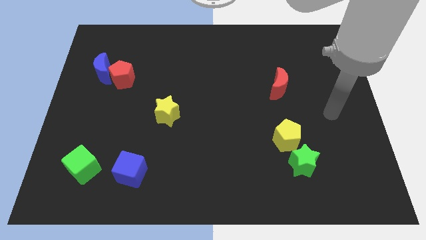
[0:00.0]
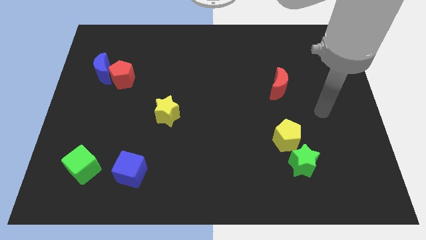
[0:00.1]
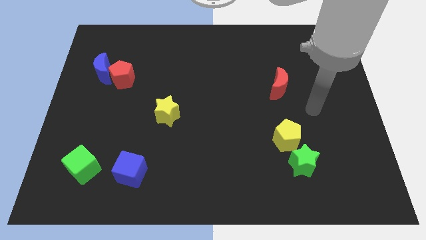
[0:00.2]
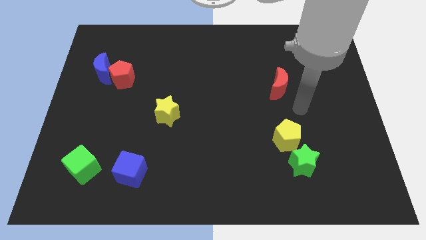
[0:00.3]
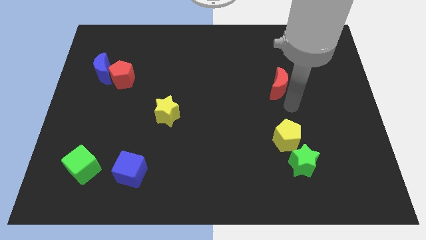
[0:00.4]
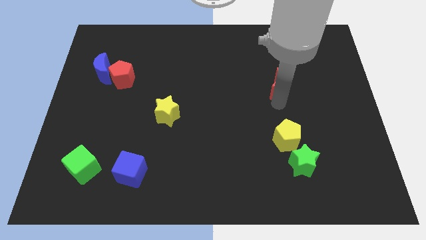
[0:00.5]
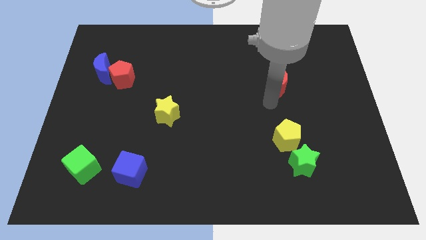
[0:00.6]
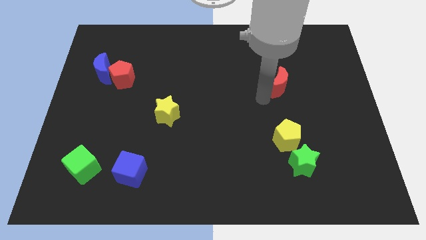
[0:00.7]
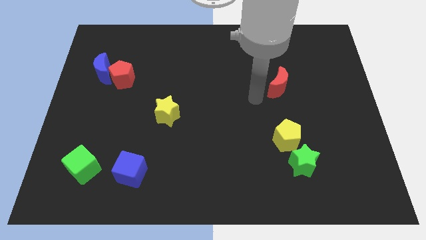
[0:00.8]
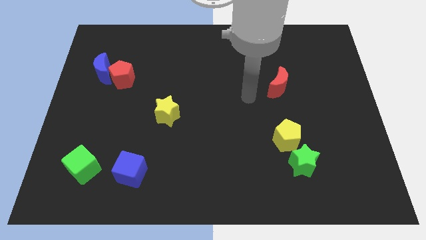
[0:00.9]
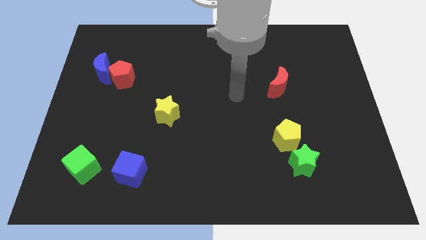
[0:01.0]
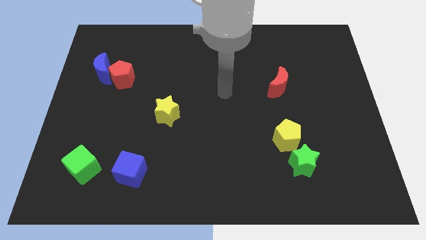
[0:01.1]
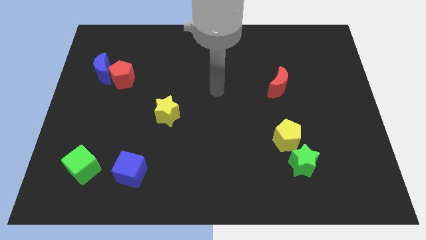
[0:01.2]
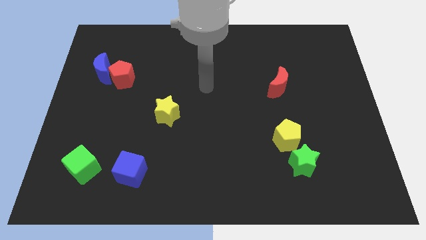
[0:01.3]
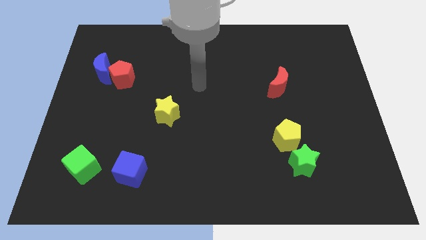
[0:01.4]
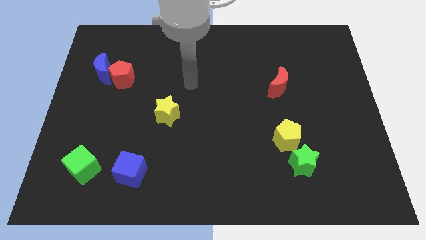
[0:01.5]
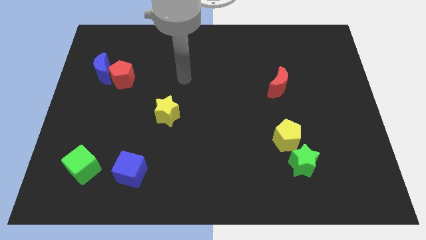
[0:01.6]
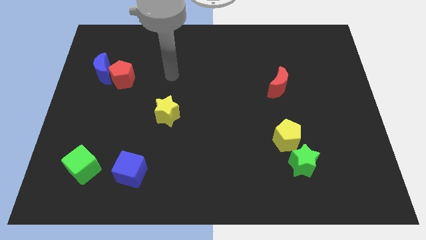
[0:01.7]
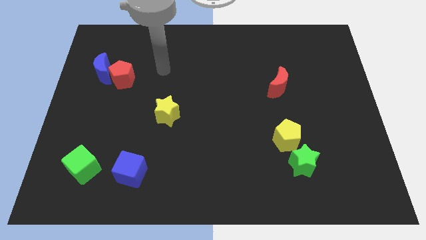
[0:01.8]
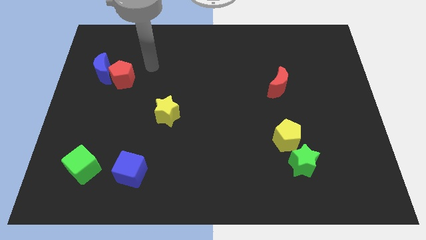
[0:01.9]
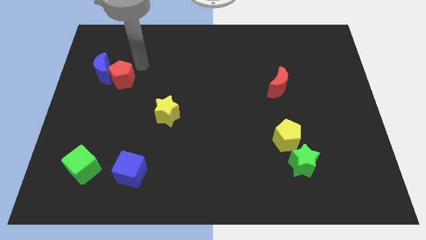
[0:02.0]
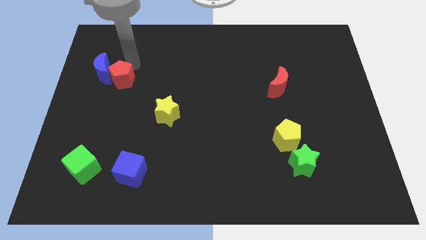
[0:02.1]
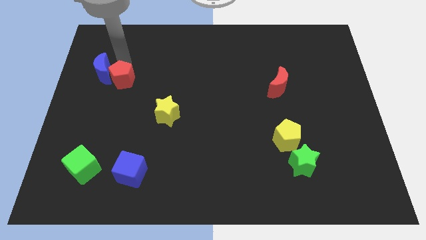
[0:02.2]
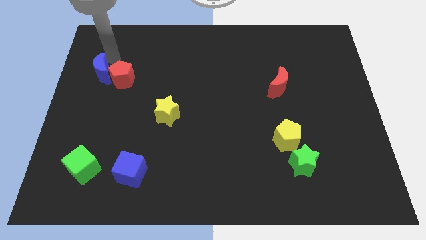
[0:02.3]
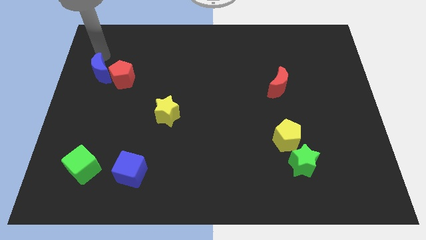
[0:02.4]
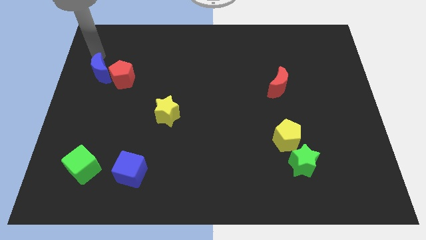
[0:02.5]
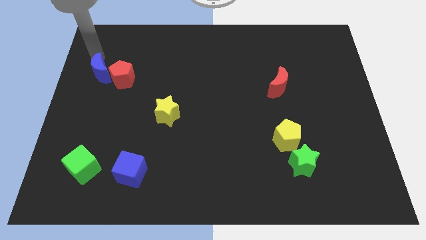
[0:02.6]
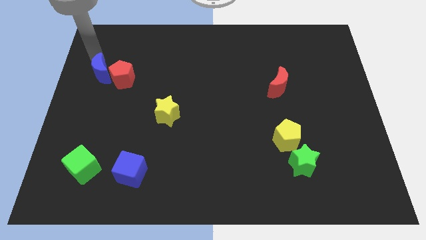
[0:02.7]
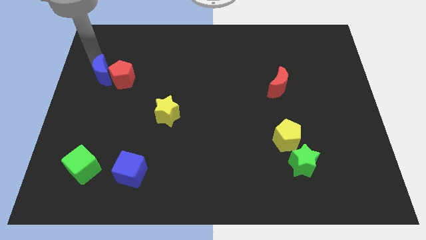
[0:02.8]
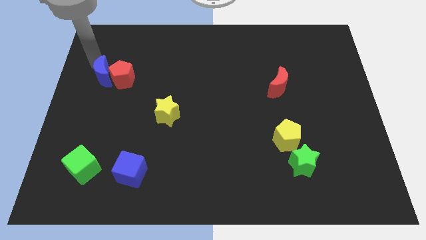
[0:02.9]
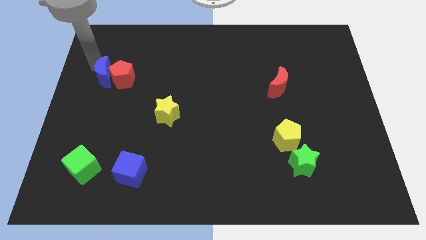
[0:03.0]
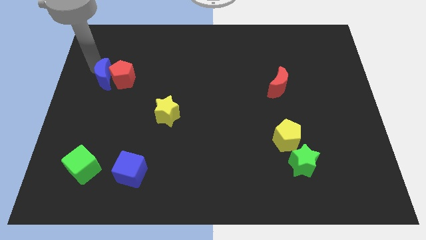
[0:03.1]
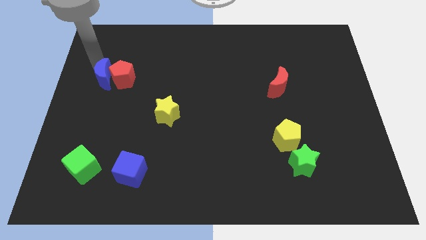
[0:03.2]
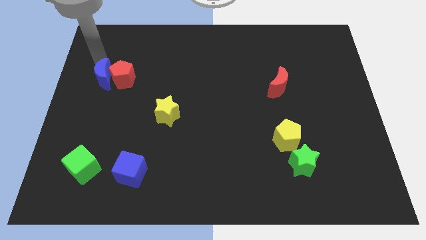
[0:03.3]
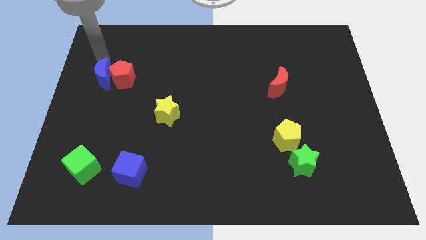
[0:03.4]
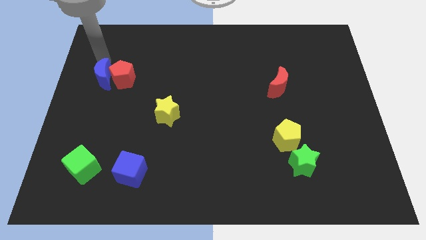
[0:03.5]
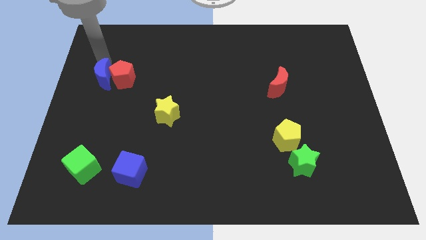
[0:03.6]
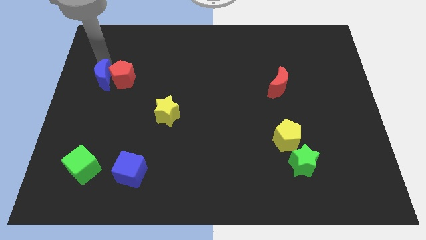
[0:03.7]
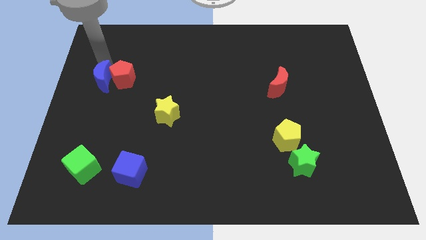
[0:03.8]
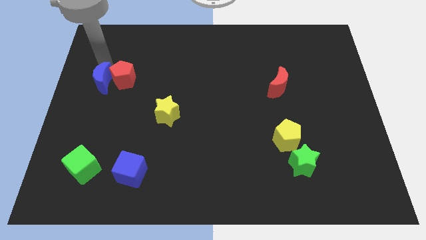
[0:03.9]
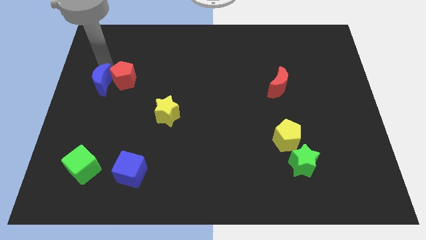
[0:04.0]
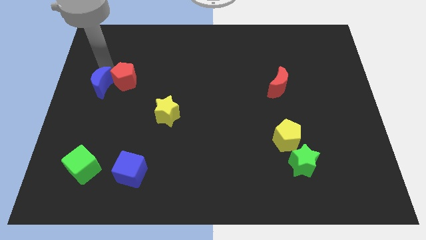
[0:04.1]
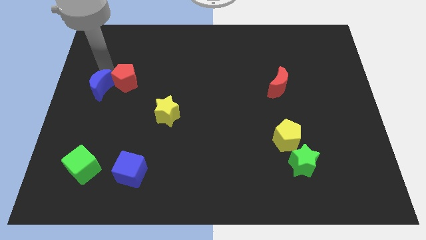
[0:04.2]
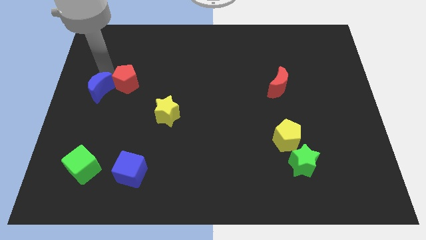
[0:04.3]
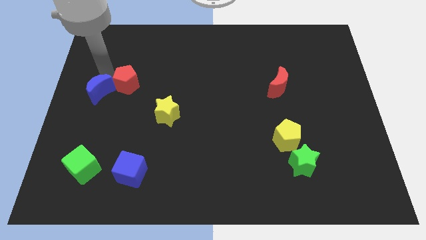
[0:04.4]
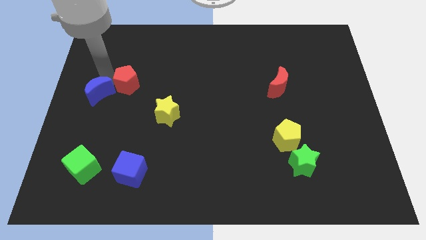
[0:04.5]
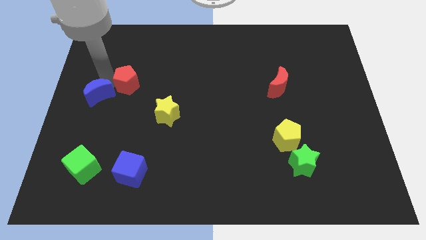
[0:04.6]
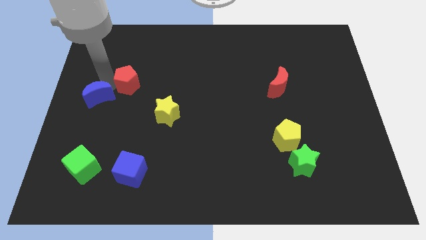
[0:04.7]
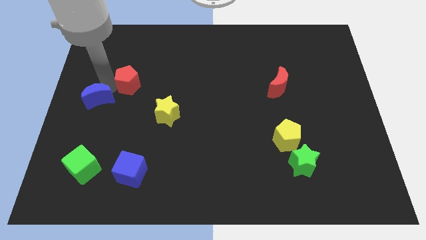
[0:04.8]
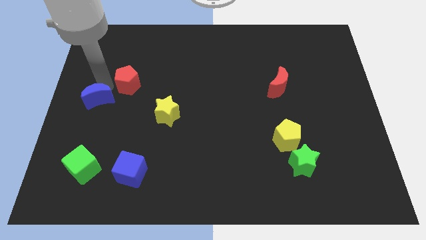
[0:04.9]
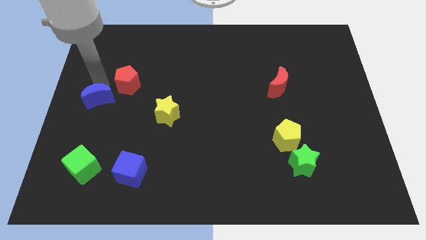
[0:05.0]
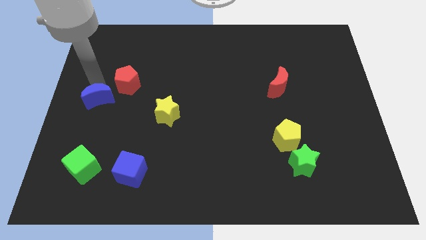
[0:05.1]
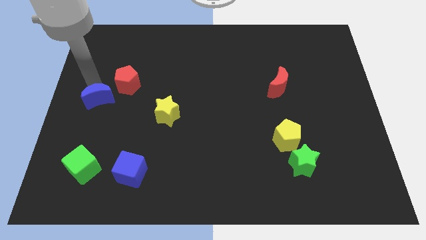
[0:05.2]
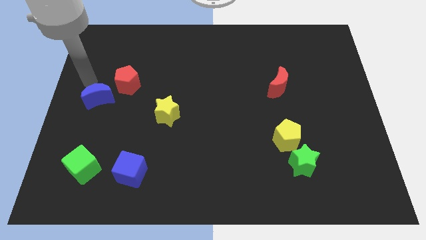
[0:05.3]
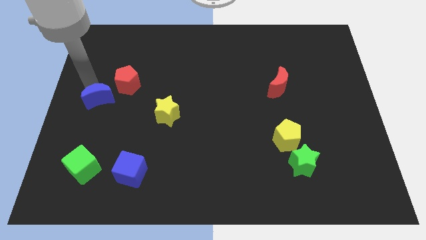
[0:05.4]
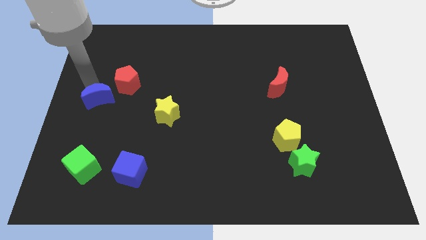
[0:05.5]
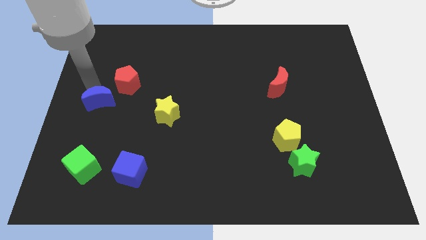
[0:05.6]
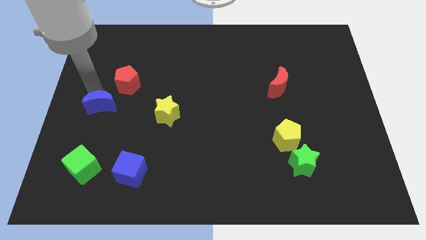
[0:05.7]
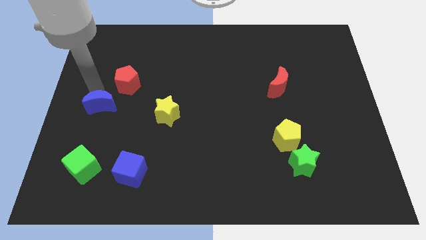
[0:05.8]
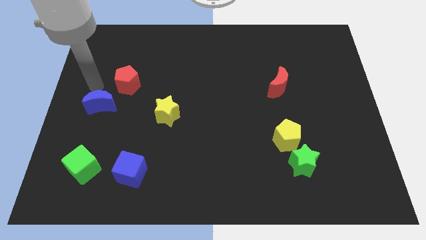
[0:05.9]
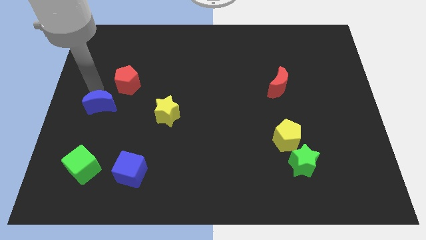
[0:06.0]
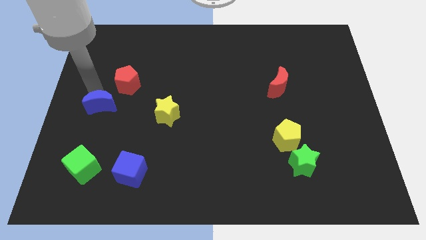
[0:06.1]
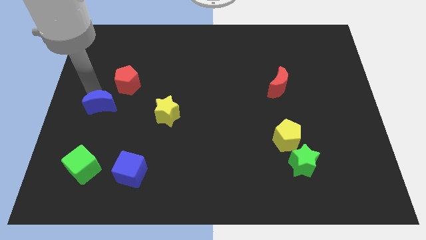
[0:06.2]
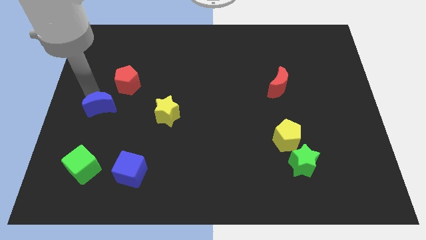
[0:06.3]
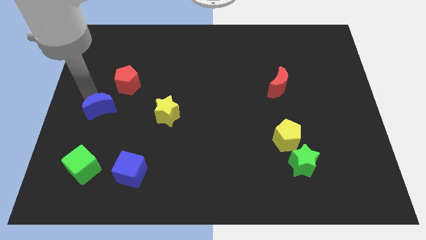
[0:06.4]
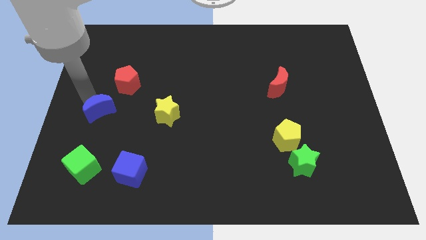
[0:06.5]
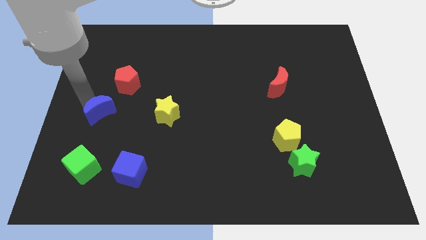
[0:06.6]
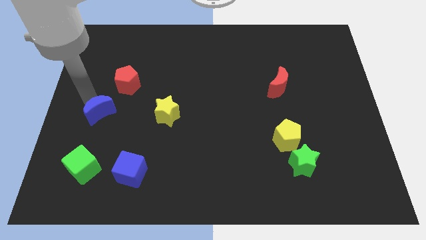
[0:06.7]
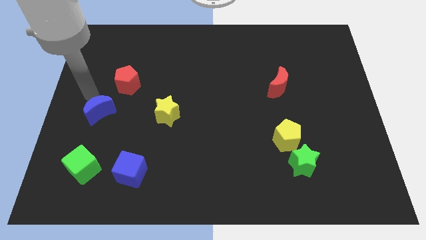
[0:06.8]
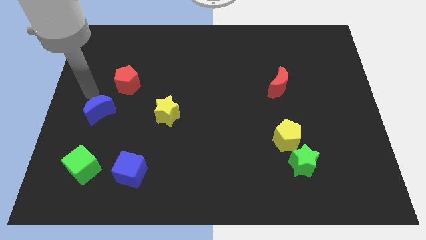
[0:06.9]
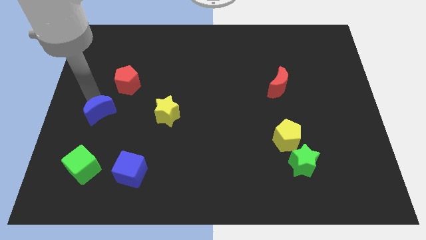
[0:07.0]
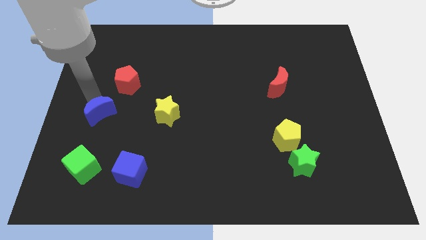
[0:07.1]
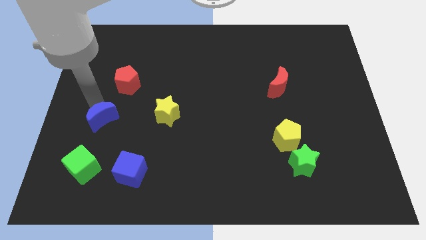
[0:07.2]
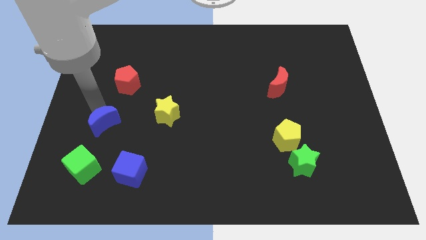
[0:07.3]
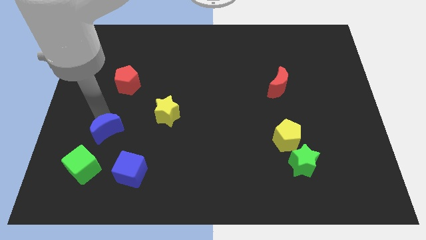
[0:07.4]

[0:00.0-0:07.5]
push the blue moon to the top left of the blue cube
